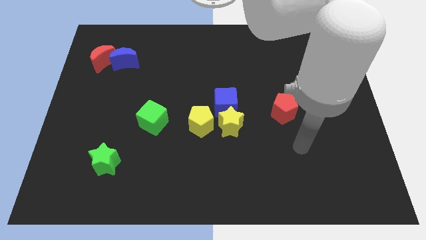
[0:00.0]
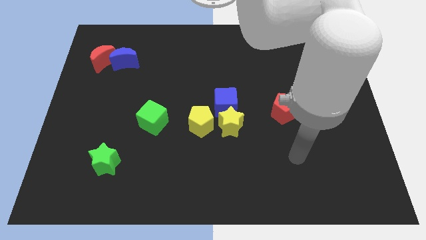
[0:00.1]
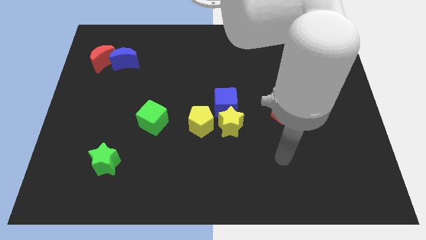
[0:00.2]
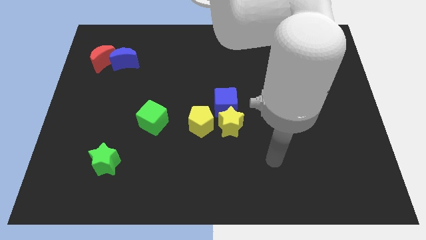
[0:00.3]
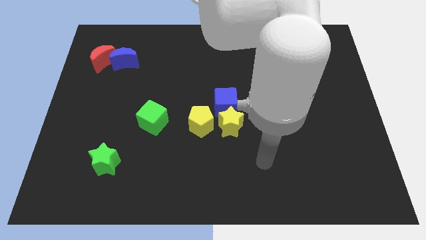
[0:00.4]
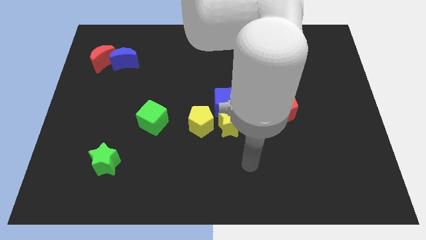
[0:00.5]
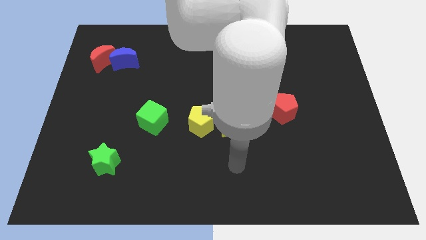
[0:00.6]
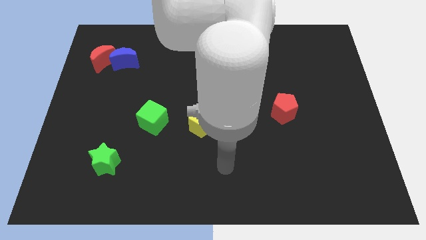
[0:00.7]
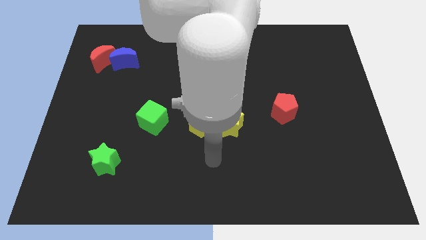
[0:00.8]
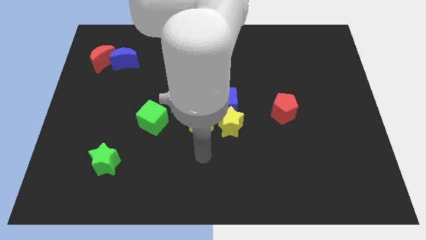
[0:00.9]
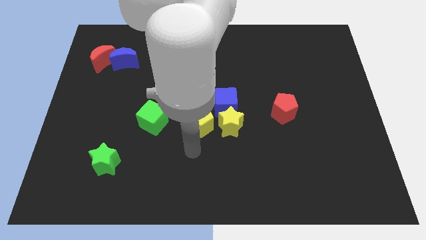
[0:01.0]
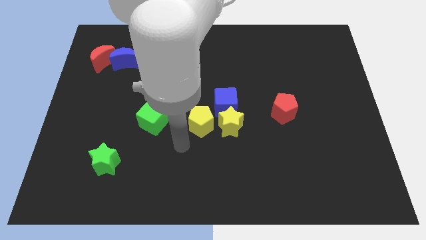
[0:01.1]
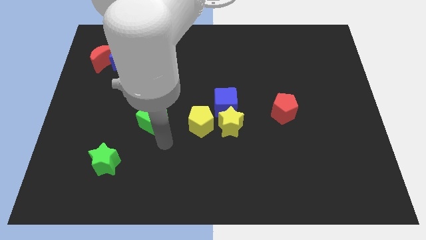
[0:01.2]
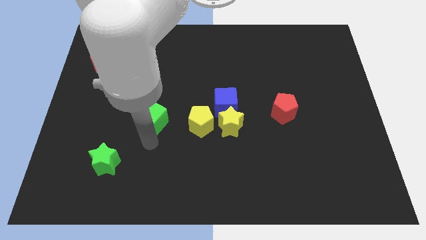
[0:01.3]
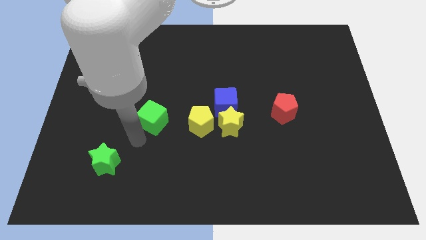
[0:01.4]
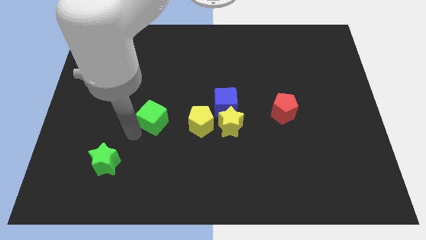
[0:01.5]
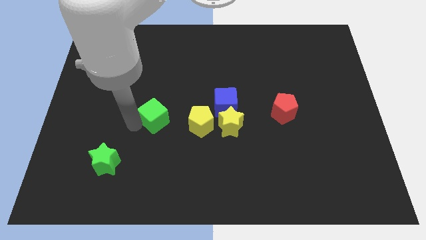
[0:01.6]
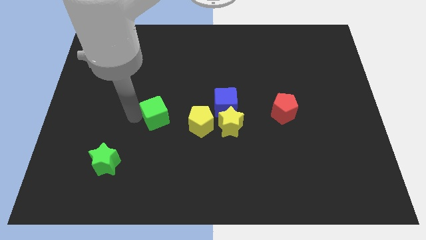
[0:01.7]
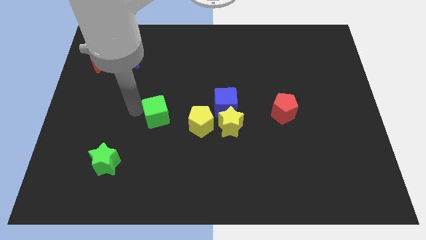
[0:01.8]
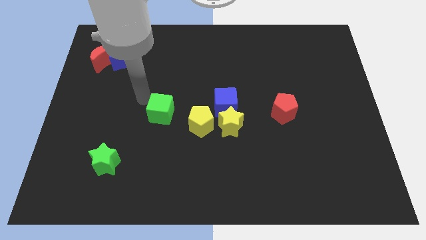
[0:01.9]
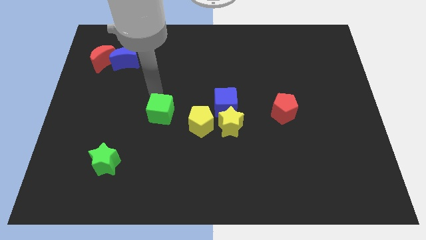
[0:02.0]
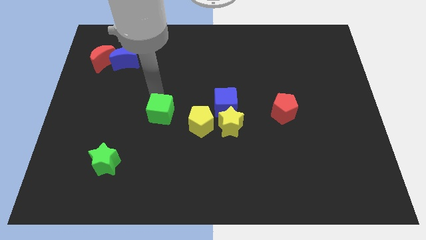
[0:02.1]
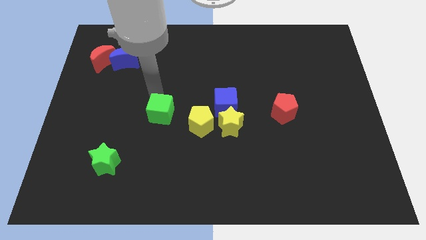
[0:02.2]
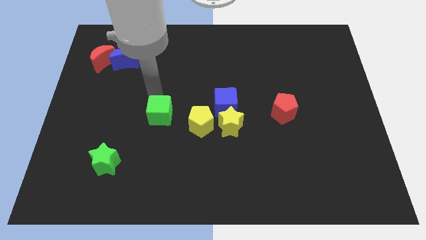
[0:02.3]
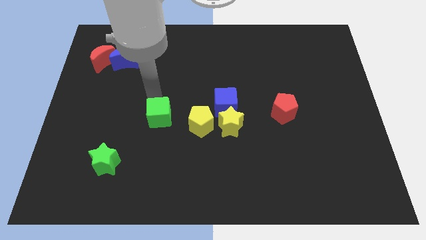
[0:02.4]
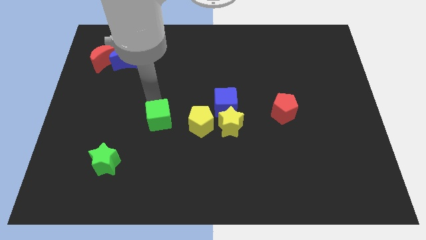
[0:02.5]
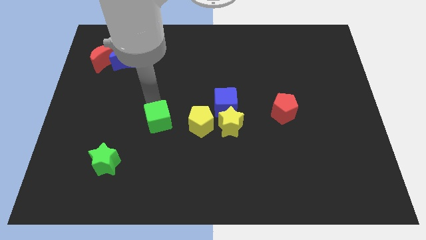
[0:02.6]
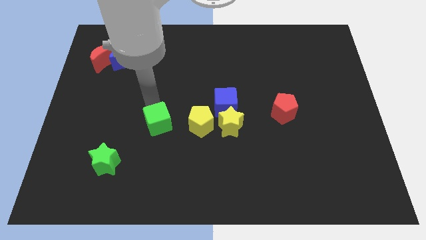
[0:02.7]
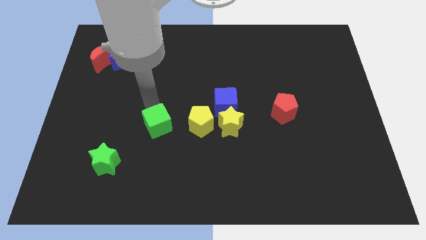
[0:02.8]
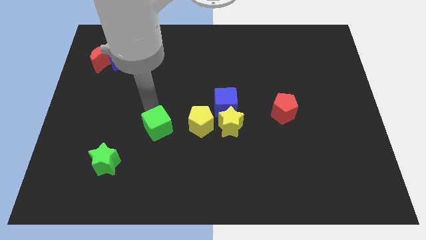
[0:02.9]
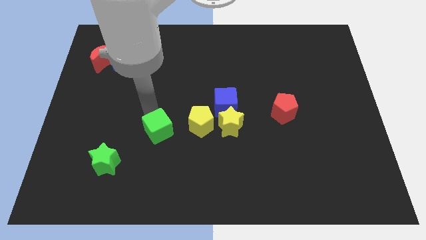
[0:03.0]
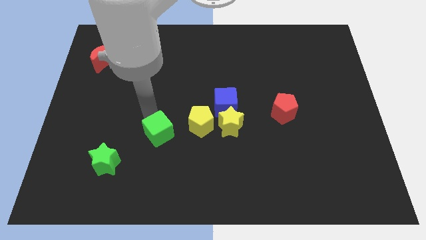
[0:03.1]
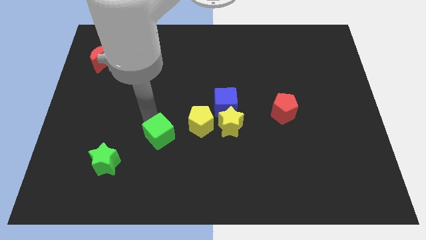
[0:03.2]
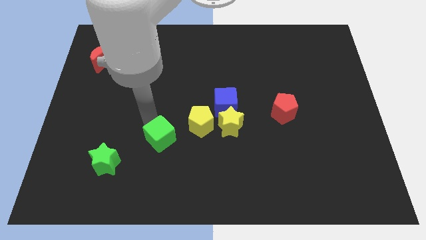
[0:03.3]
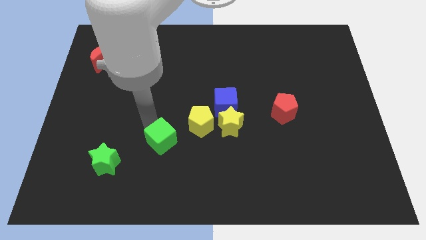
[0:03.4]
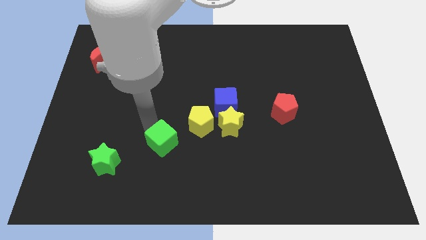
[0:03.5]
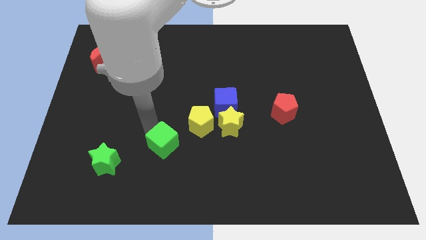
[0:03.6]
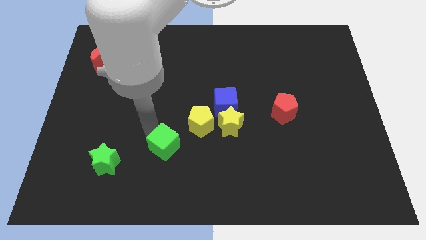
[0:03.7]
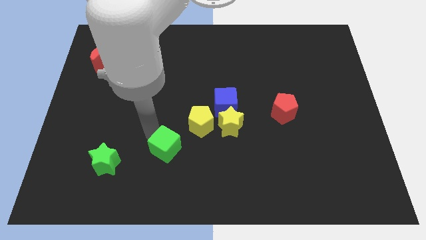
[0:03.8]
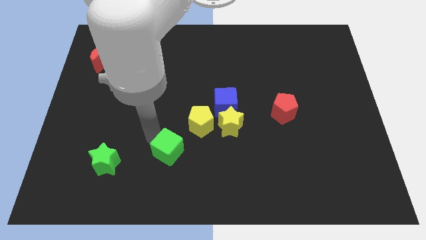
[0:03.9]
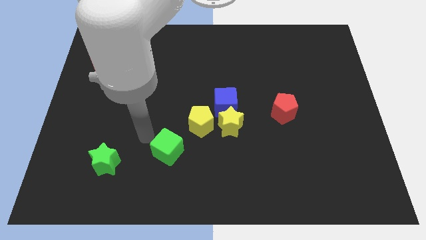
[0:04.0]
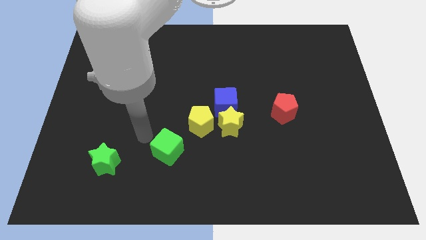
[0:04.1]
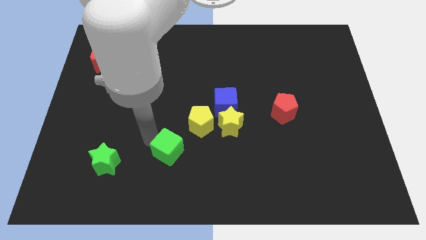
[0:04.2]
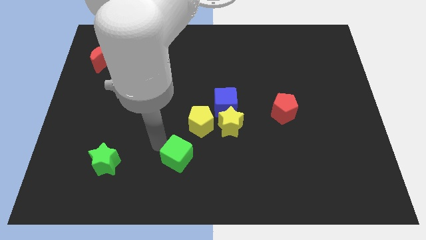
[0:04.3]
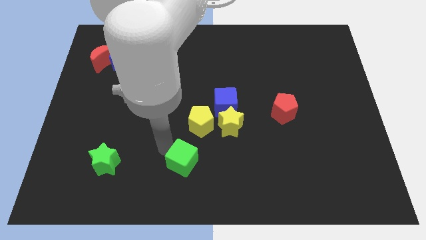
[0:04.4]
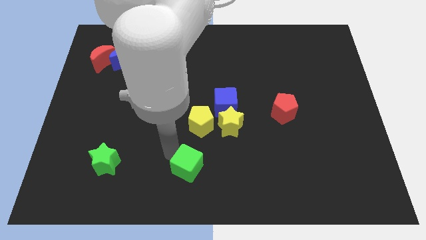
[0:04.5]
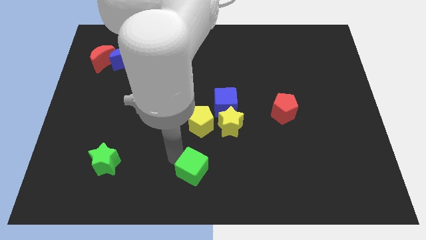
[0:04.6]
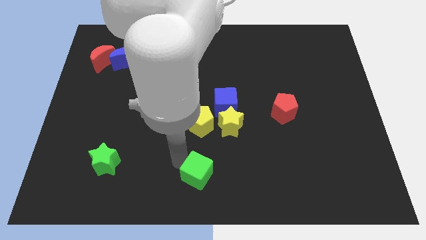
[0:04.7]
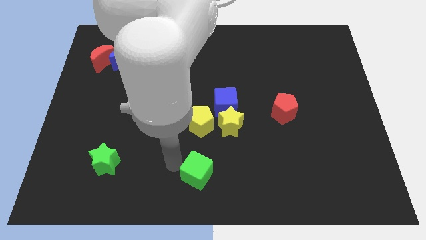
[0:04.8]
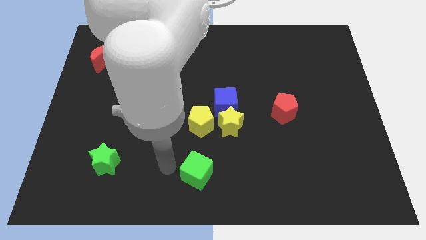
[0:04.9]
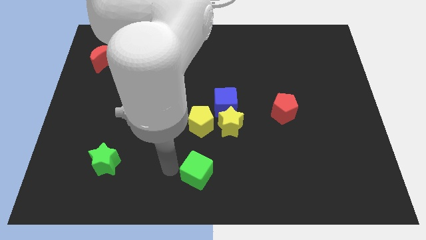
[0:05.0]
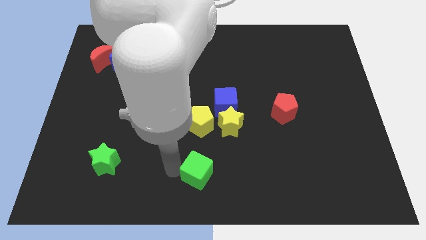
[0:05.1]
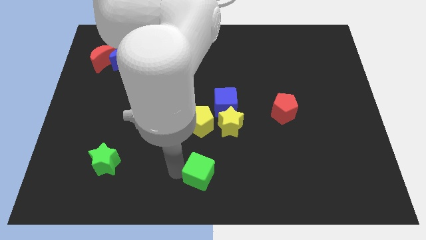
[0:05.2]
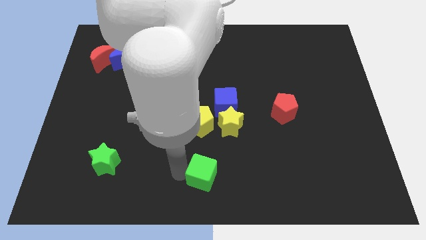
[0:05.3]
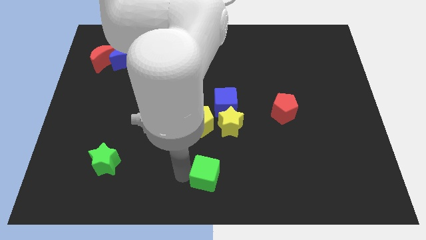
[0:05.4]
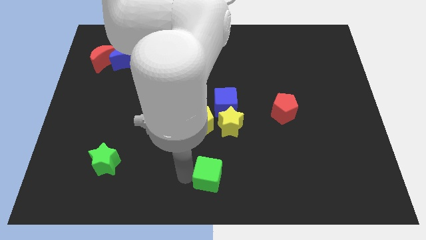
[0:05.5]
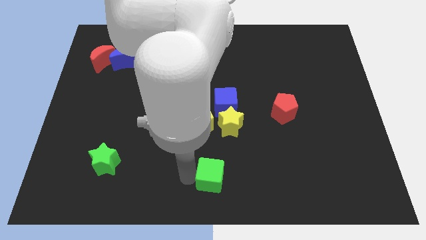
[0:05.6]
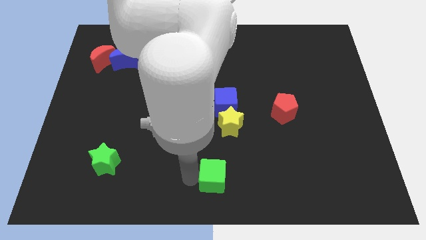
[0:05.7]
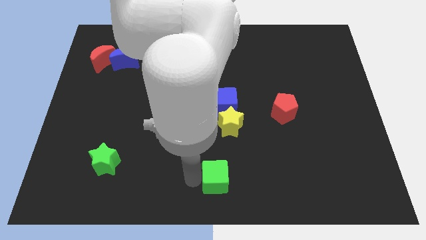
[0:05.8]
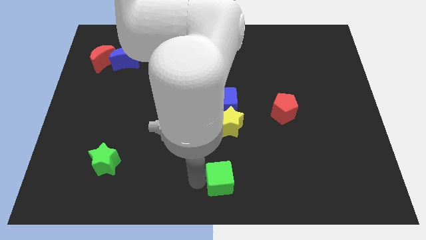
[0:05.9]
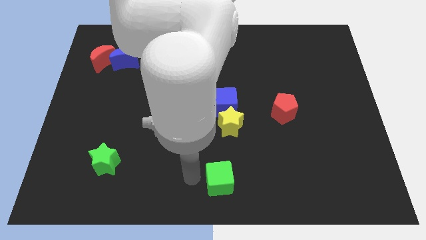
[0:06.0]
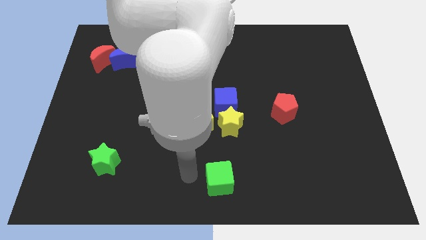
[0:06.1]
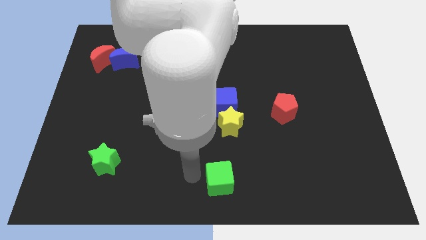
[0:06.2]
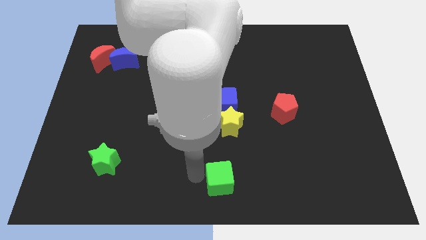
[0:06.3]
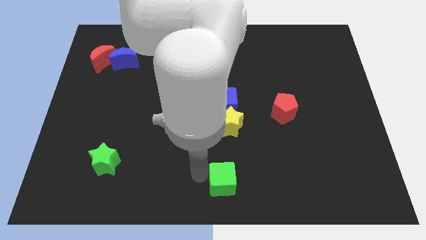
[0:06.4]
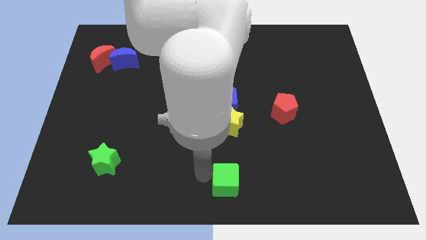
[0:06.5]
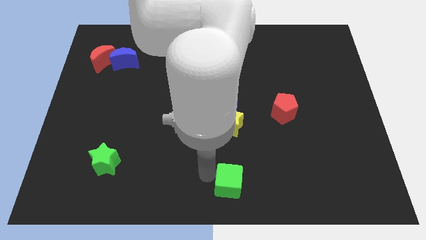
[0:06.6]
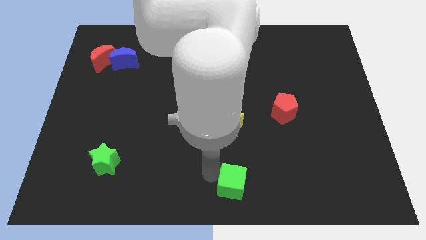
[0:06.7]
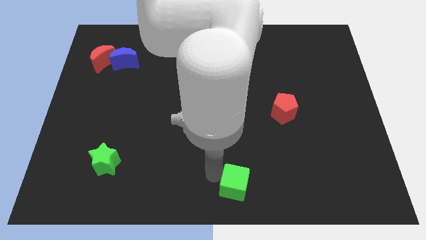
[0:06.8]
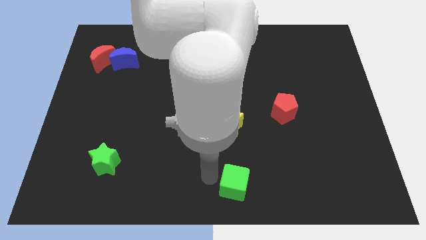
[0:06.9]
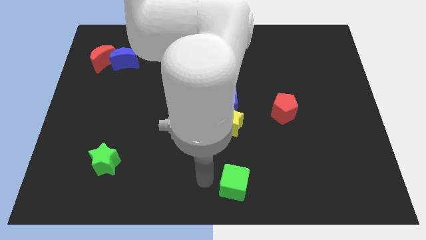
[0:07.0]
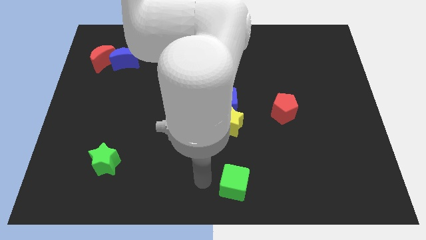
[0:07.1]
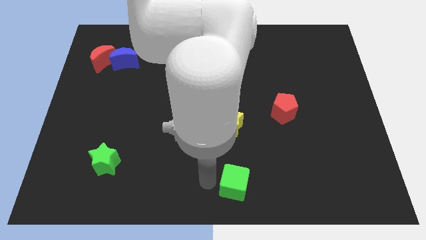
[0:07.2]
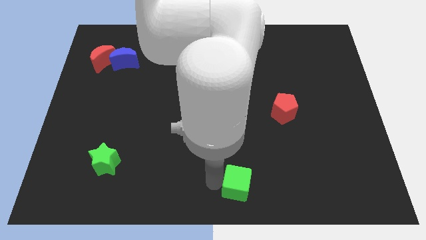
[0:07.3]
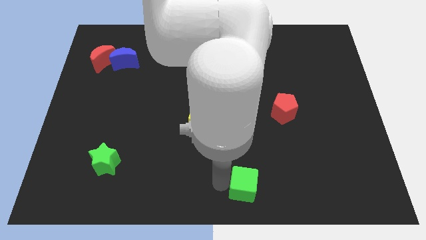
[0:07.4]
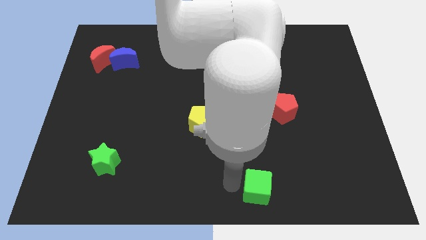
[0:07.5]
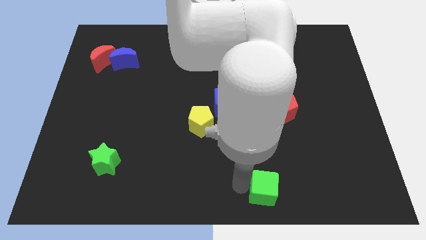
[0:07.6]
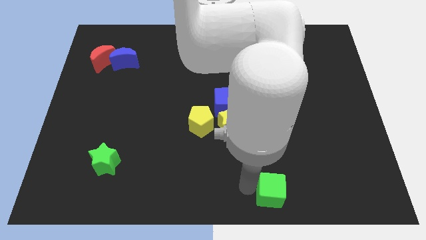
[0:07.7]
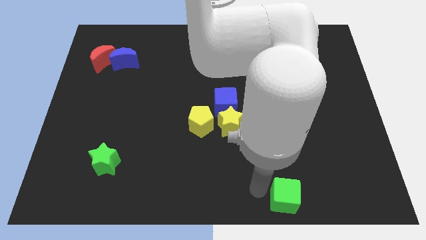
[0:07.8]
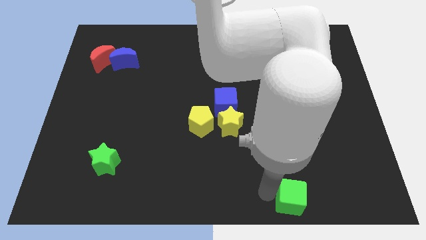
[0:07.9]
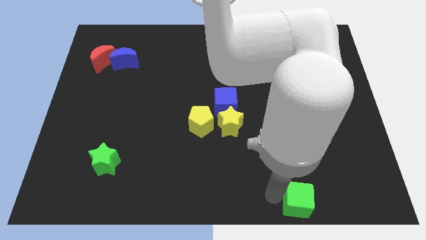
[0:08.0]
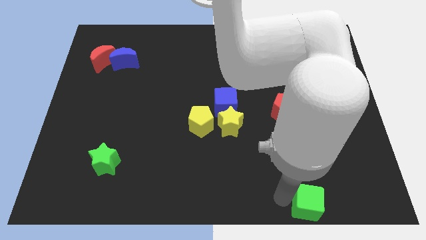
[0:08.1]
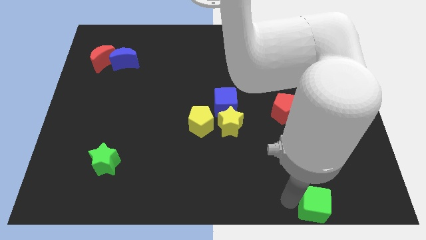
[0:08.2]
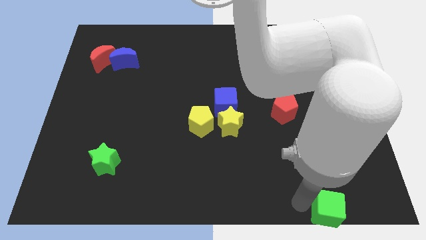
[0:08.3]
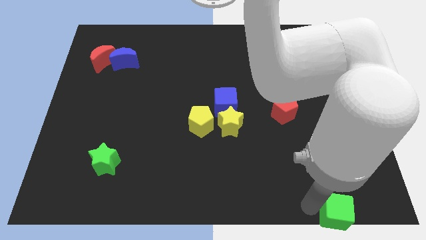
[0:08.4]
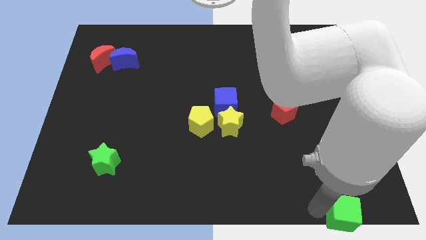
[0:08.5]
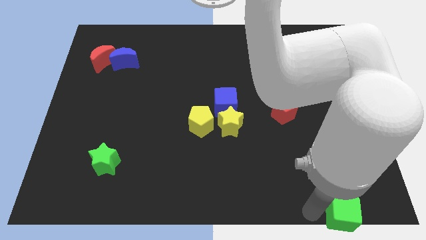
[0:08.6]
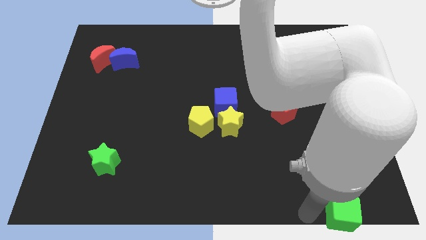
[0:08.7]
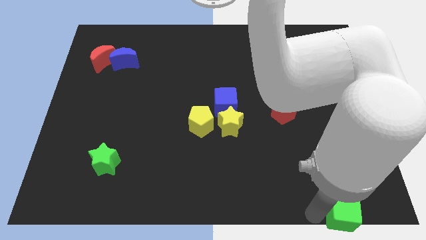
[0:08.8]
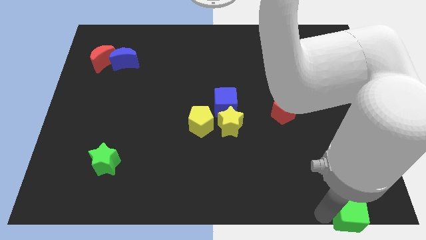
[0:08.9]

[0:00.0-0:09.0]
push the green cube to the lower right corner
